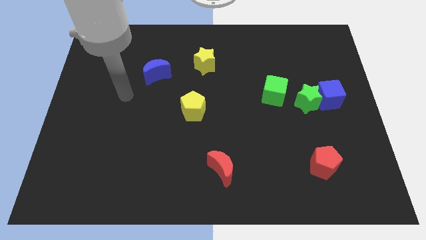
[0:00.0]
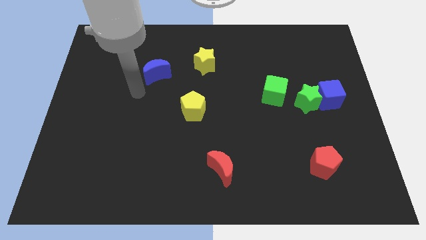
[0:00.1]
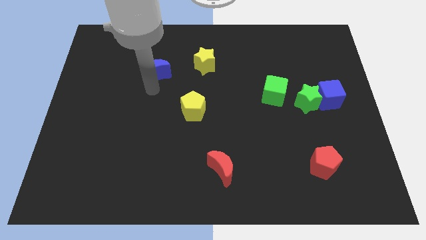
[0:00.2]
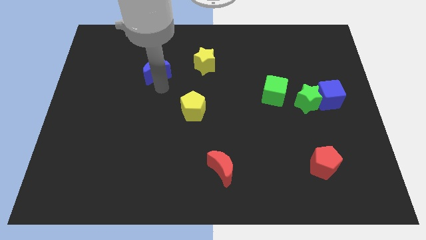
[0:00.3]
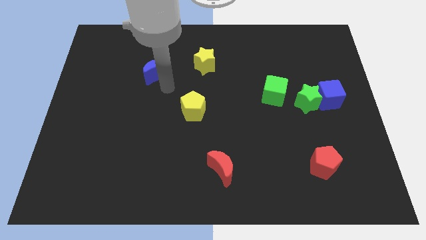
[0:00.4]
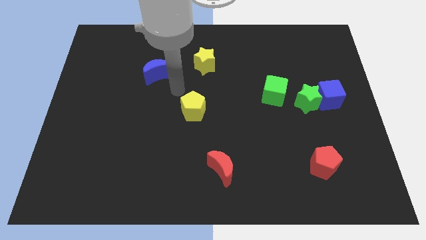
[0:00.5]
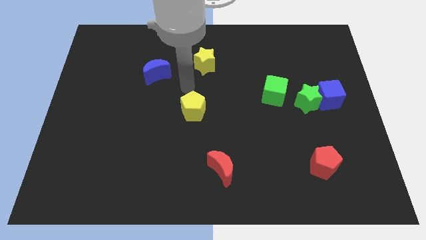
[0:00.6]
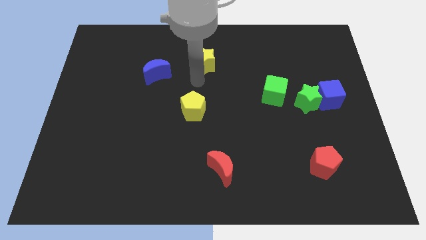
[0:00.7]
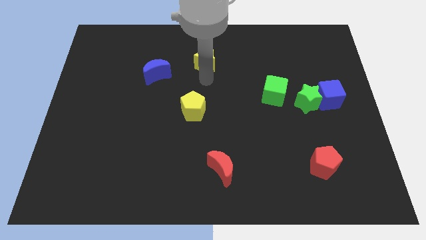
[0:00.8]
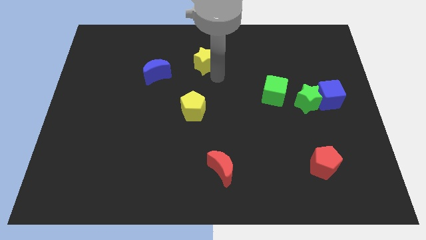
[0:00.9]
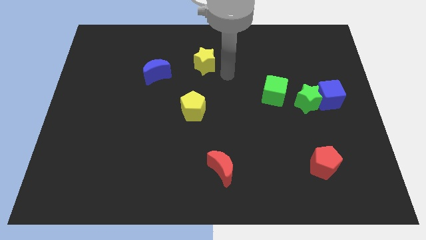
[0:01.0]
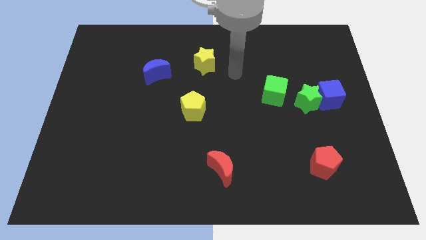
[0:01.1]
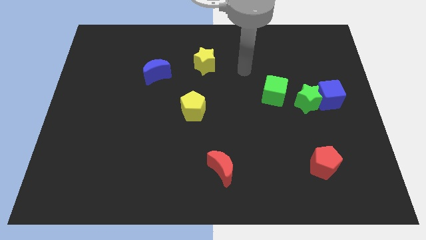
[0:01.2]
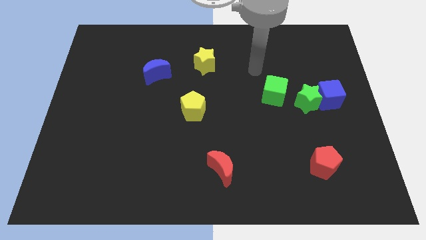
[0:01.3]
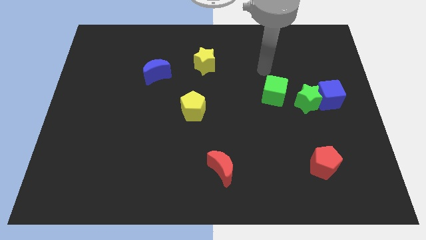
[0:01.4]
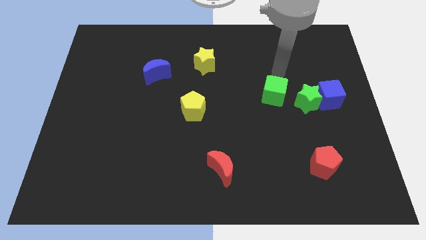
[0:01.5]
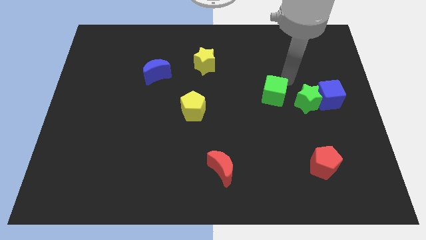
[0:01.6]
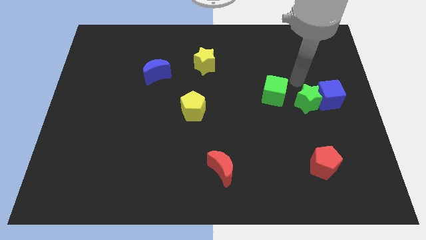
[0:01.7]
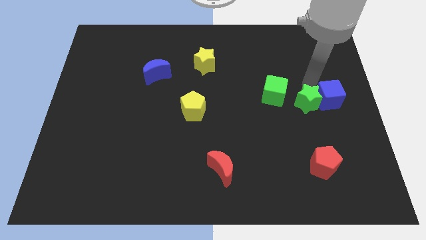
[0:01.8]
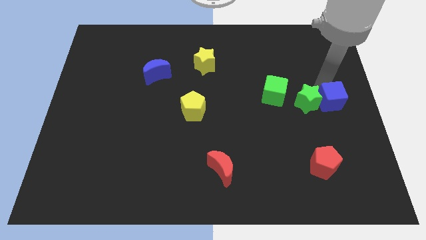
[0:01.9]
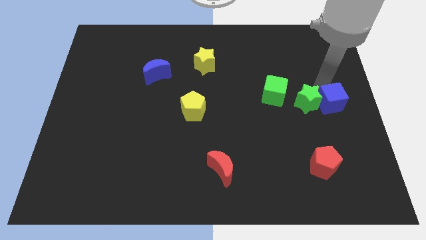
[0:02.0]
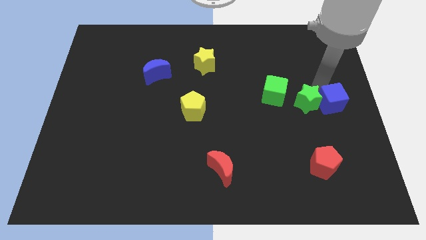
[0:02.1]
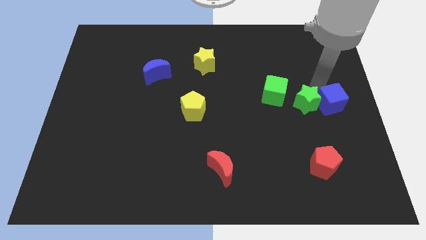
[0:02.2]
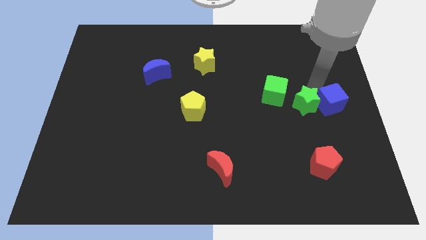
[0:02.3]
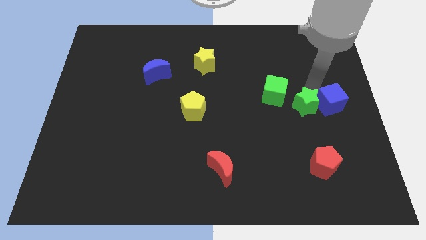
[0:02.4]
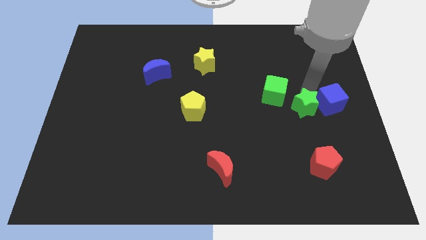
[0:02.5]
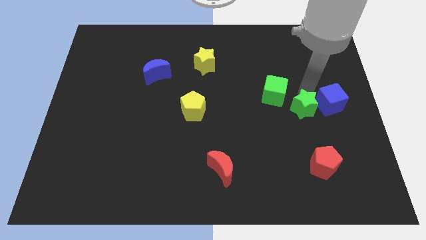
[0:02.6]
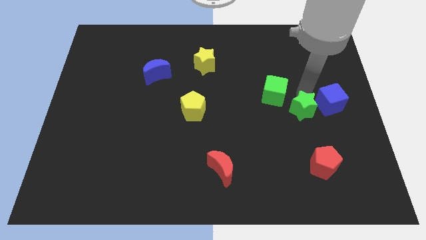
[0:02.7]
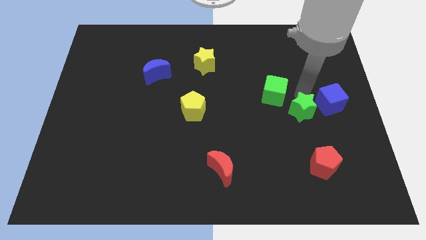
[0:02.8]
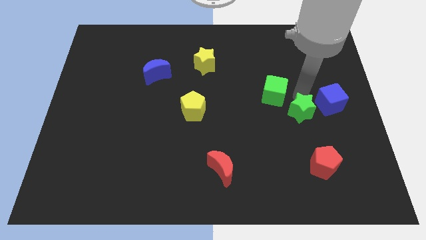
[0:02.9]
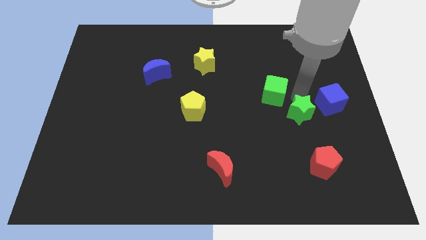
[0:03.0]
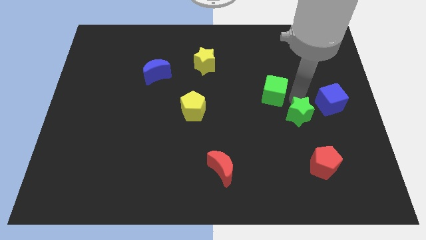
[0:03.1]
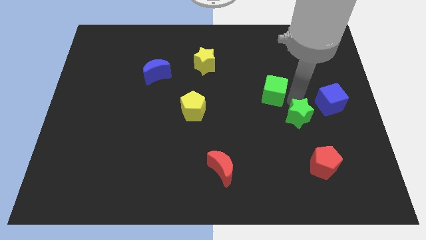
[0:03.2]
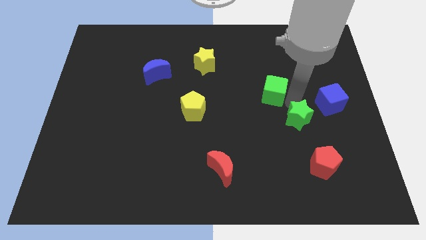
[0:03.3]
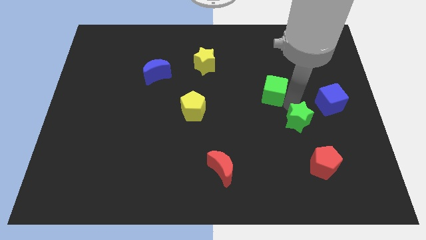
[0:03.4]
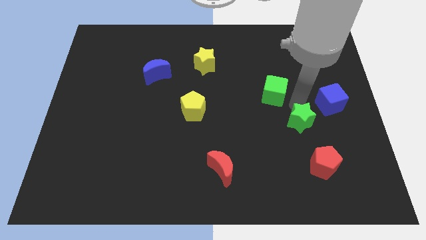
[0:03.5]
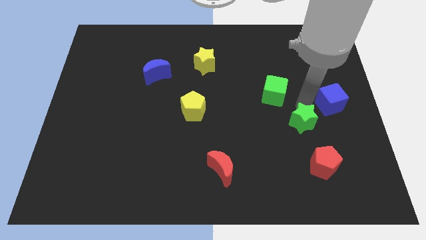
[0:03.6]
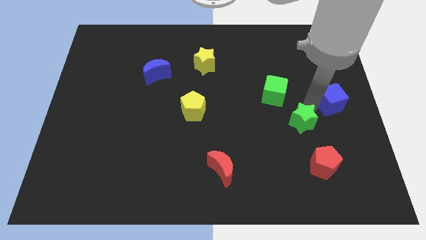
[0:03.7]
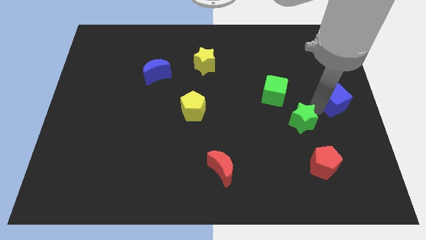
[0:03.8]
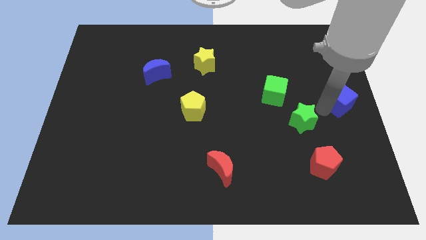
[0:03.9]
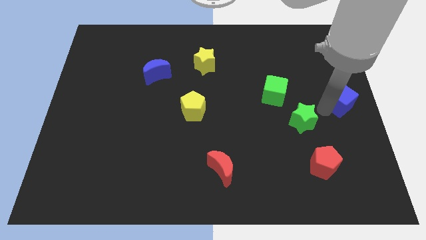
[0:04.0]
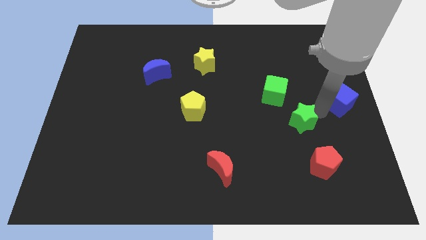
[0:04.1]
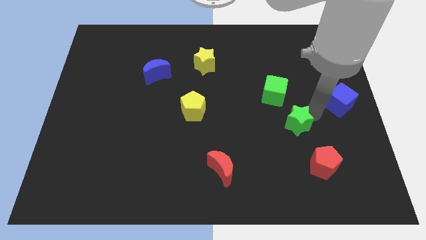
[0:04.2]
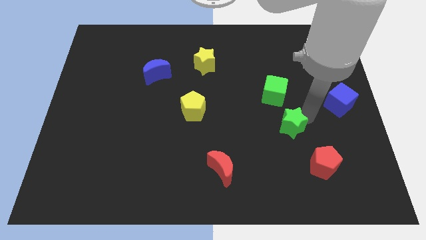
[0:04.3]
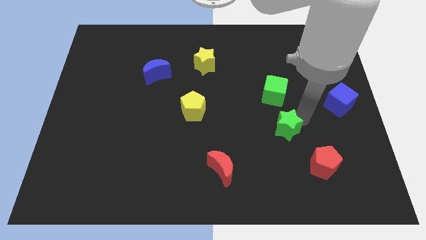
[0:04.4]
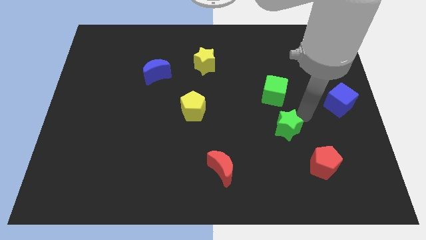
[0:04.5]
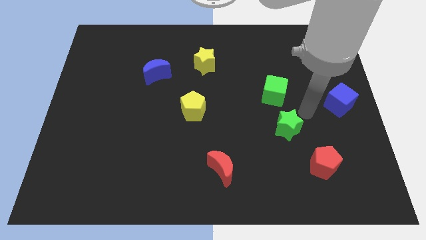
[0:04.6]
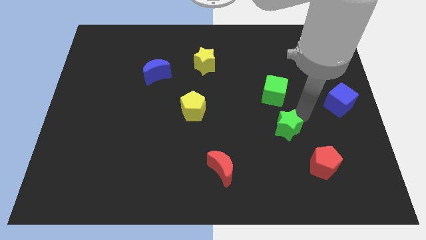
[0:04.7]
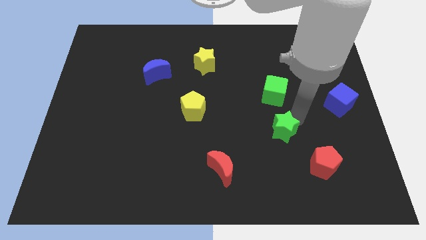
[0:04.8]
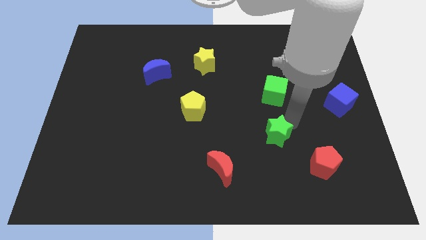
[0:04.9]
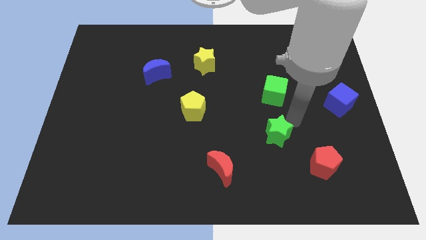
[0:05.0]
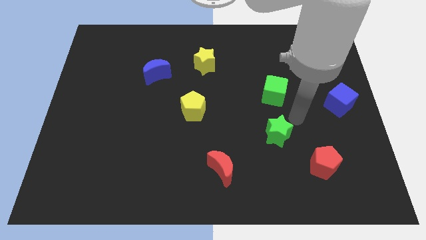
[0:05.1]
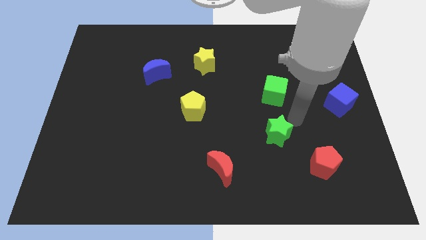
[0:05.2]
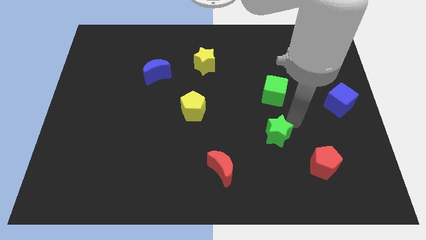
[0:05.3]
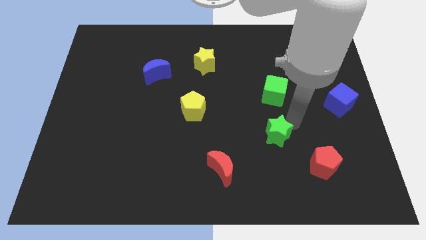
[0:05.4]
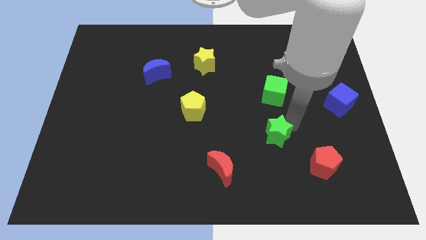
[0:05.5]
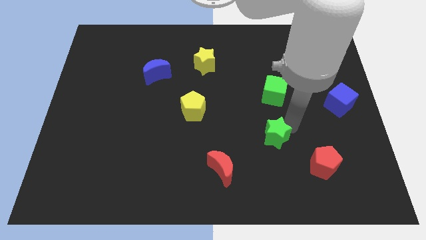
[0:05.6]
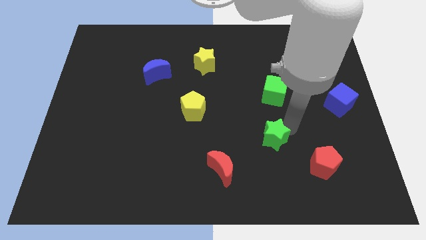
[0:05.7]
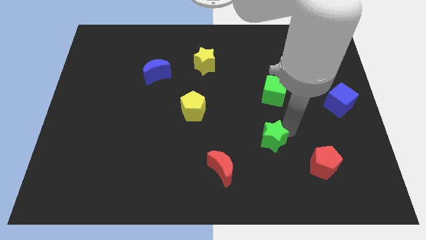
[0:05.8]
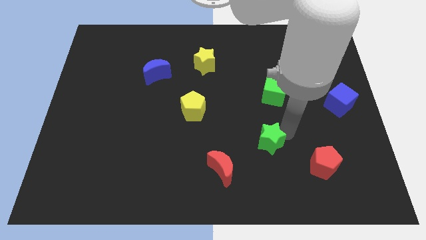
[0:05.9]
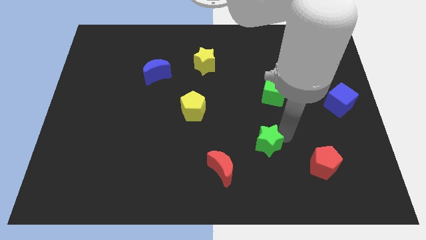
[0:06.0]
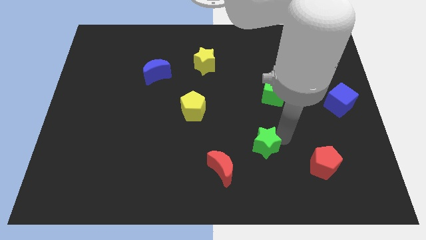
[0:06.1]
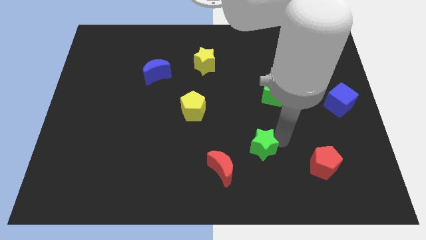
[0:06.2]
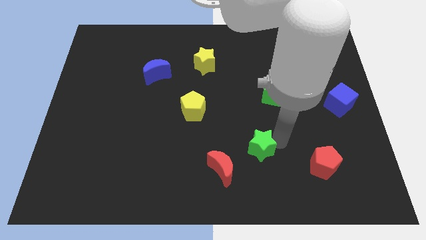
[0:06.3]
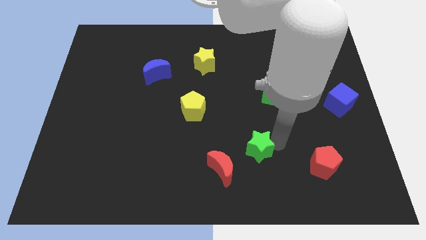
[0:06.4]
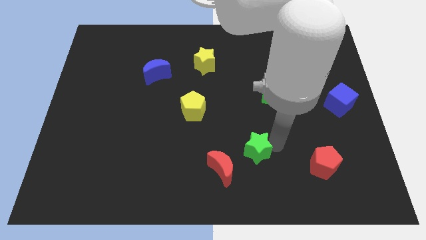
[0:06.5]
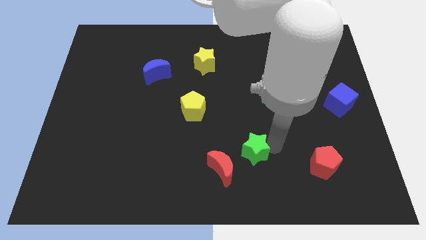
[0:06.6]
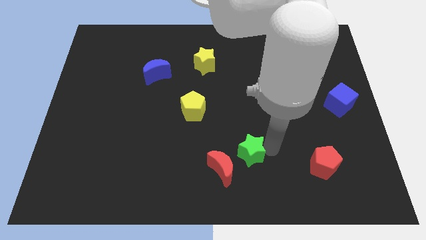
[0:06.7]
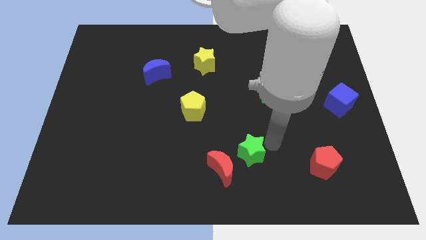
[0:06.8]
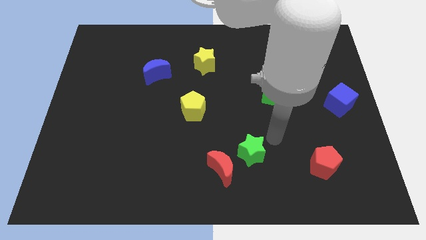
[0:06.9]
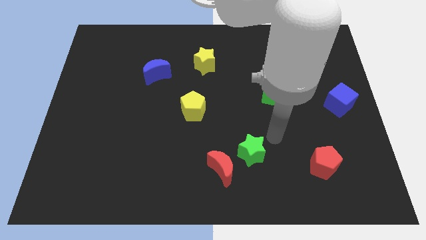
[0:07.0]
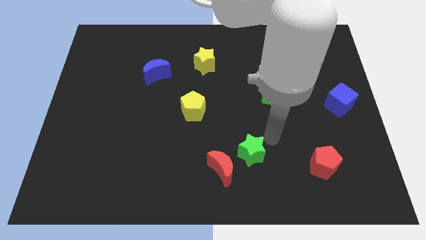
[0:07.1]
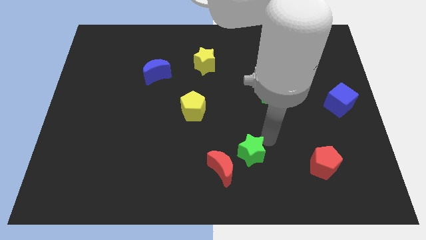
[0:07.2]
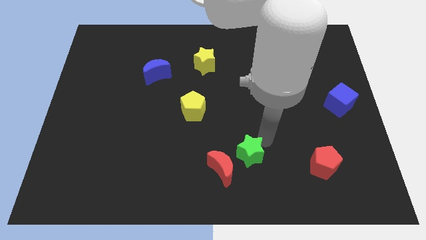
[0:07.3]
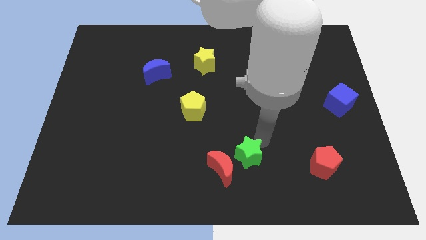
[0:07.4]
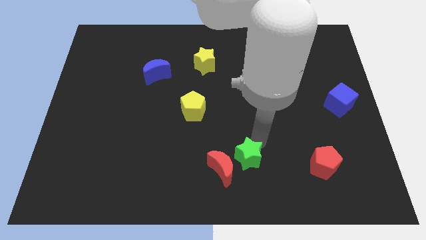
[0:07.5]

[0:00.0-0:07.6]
move the green star next to the red moon

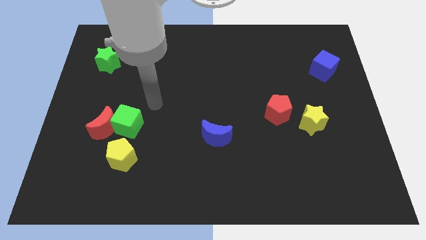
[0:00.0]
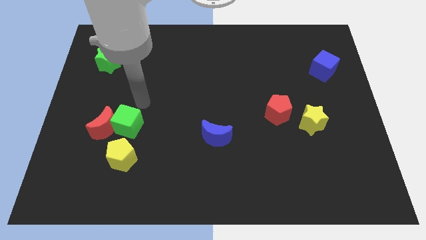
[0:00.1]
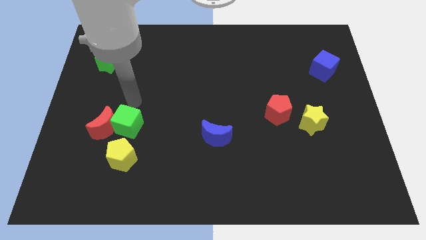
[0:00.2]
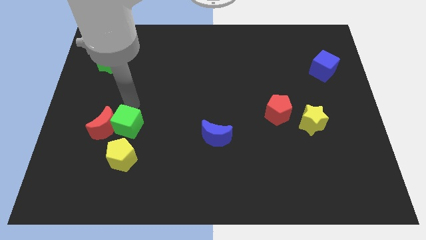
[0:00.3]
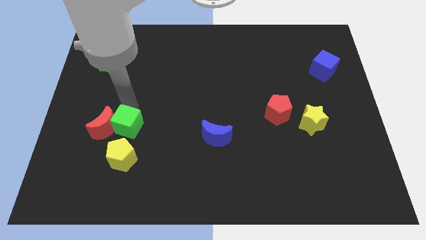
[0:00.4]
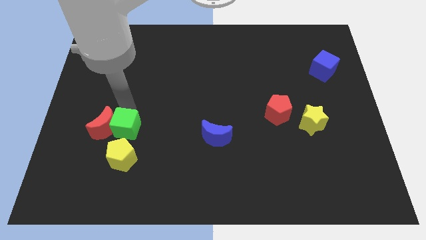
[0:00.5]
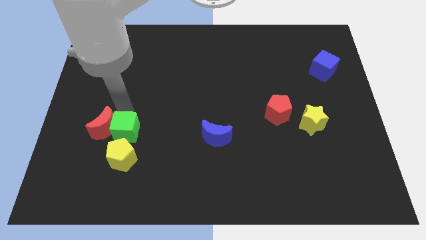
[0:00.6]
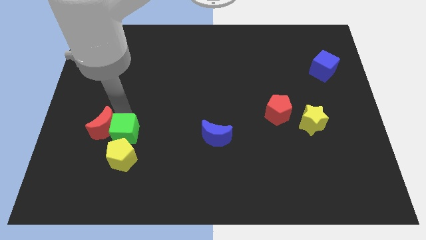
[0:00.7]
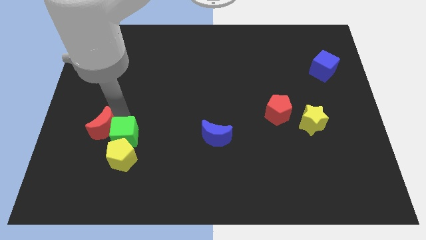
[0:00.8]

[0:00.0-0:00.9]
push the green cube close to the yellow pentagon
